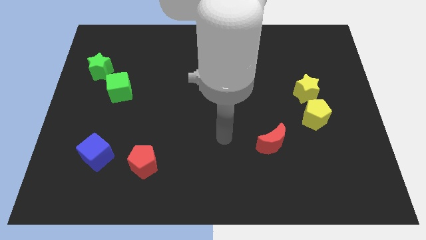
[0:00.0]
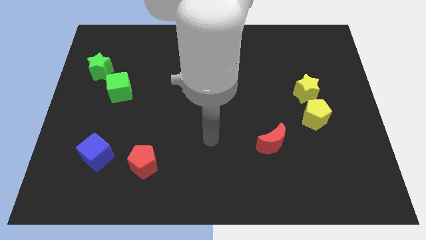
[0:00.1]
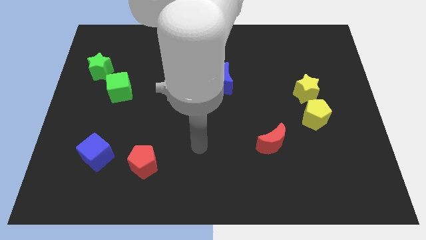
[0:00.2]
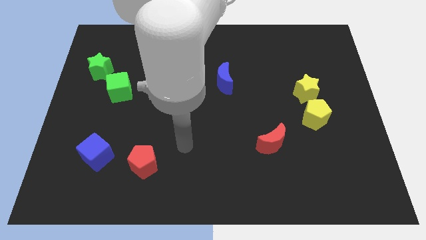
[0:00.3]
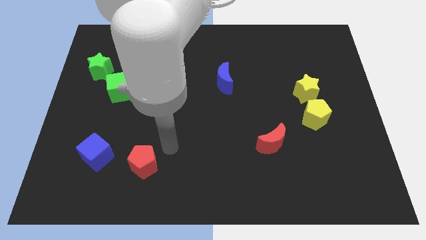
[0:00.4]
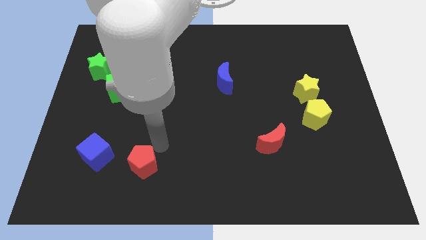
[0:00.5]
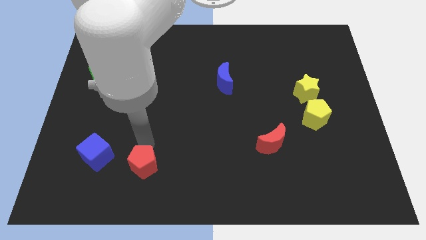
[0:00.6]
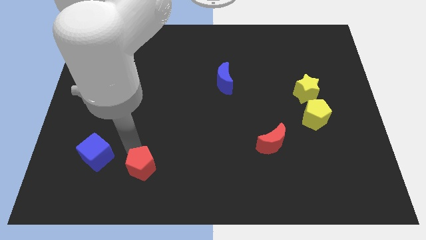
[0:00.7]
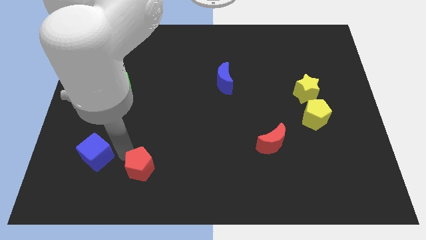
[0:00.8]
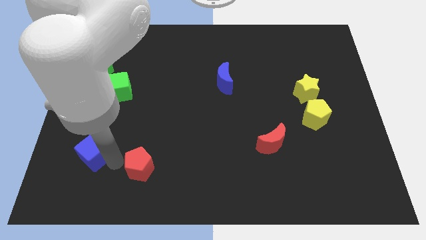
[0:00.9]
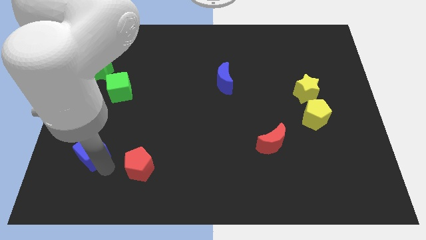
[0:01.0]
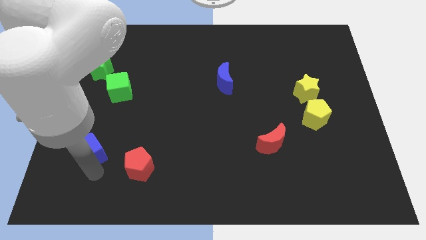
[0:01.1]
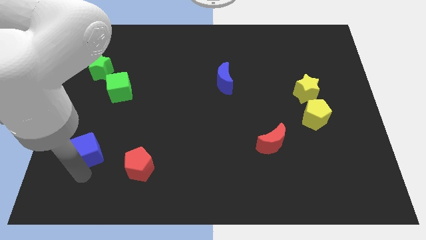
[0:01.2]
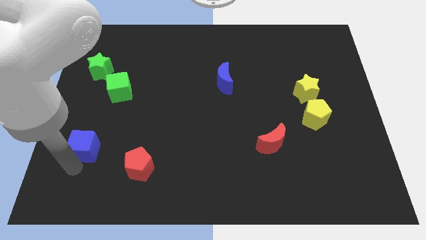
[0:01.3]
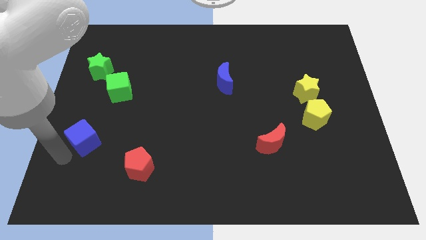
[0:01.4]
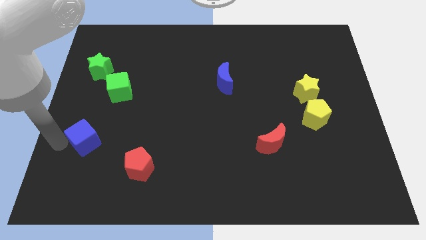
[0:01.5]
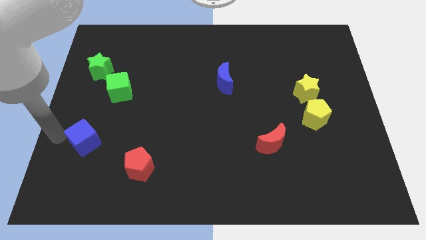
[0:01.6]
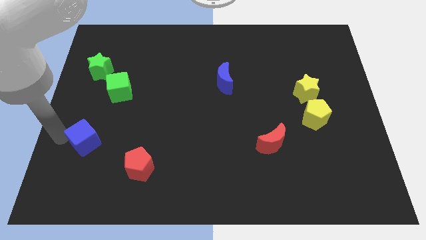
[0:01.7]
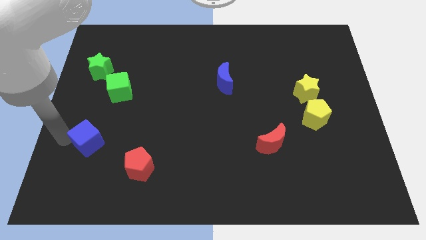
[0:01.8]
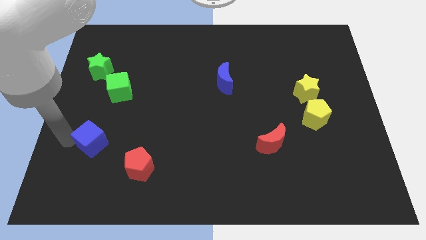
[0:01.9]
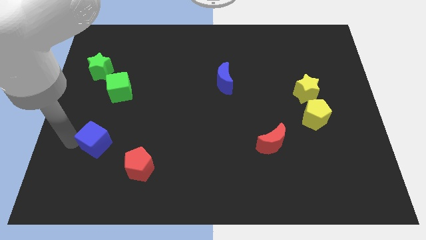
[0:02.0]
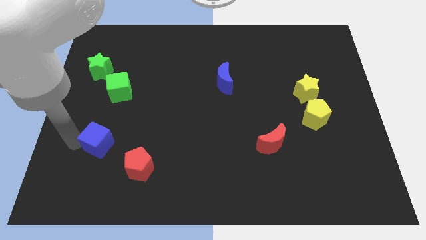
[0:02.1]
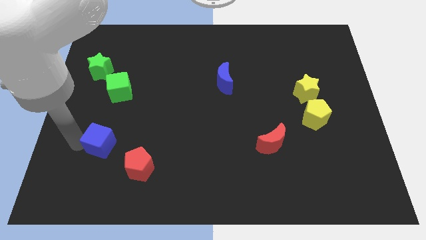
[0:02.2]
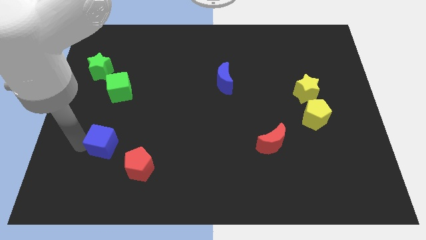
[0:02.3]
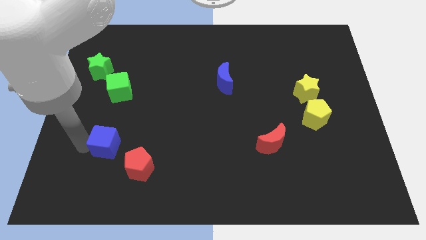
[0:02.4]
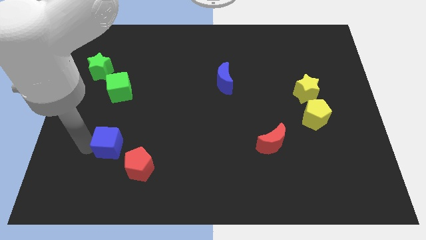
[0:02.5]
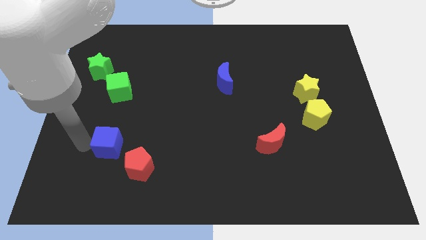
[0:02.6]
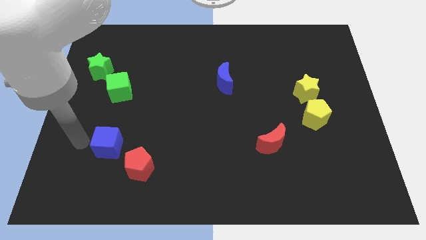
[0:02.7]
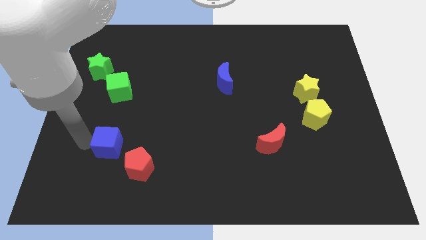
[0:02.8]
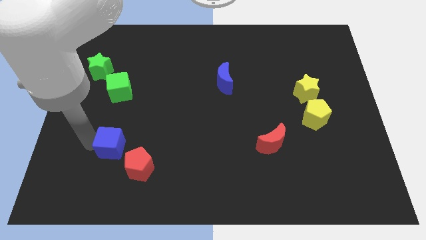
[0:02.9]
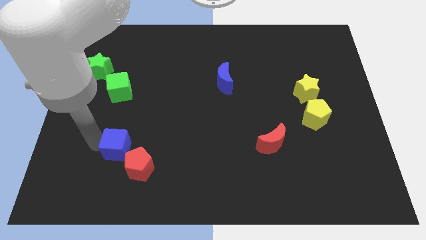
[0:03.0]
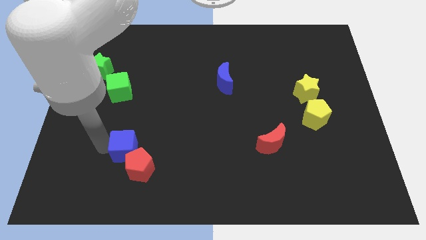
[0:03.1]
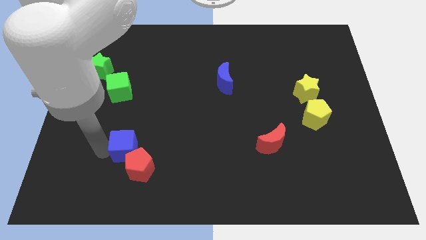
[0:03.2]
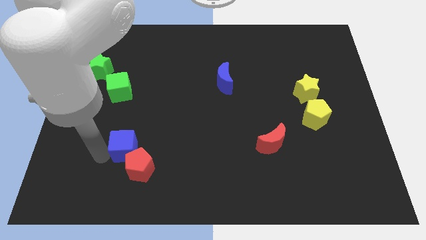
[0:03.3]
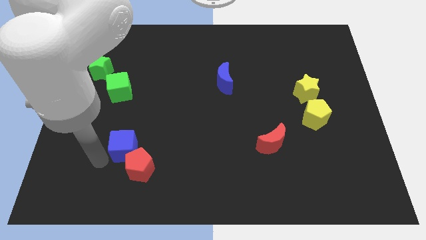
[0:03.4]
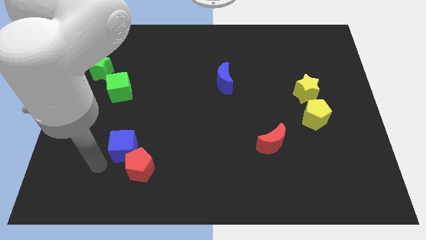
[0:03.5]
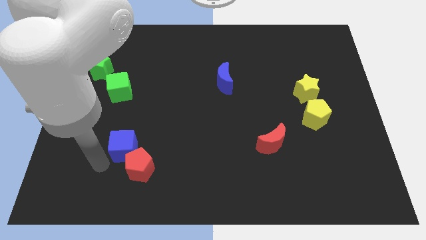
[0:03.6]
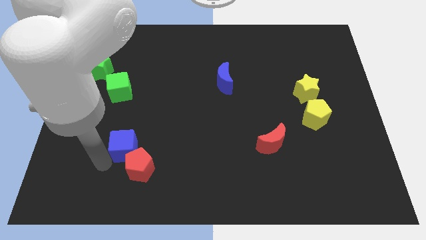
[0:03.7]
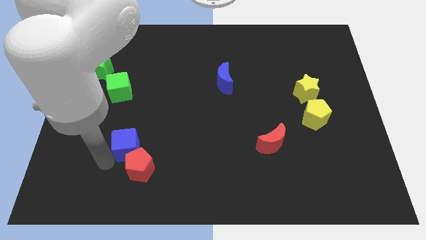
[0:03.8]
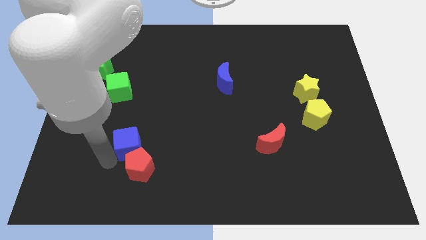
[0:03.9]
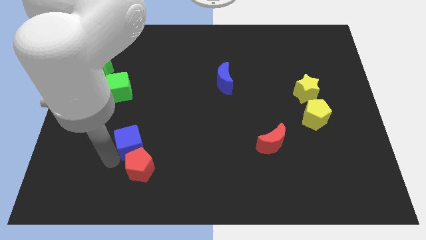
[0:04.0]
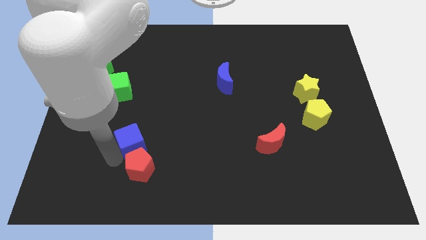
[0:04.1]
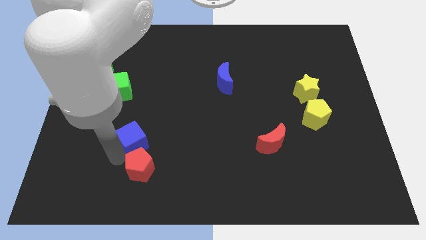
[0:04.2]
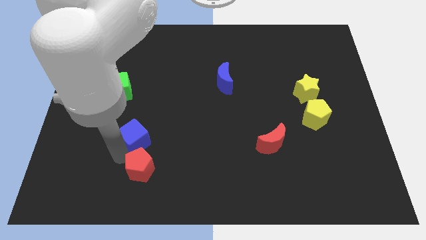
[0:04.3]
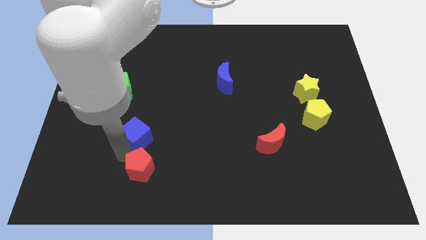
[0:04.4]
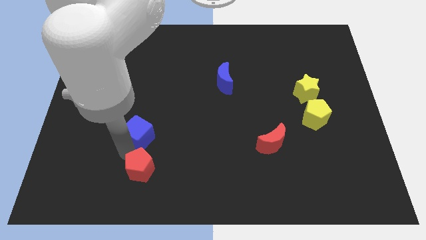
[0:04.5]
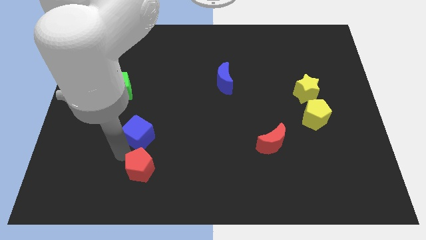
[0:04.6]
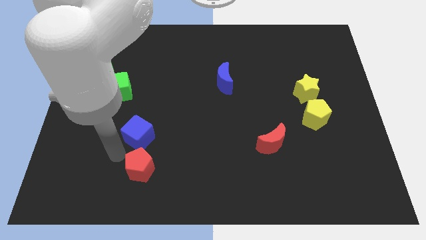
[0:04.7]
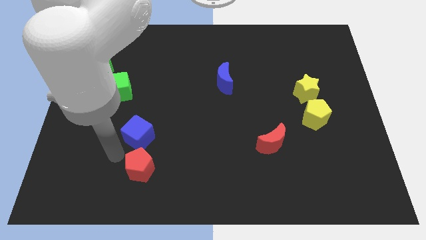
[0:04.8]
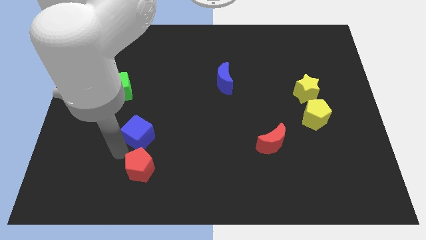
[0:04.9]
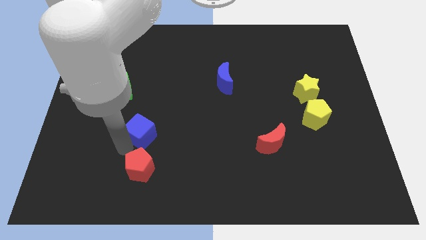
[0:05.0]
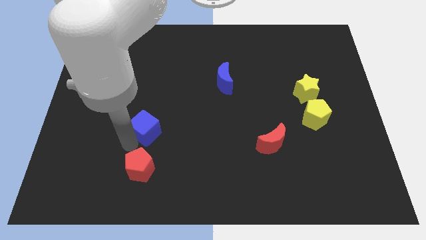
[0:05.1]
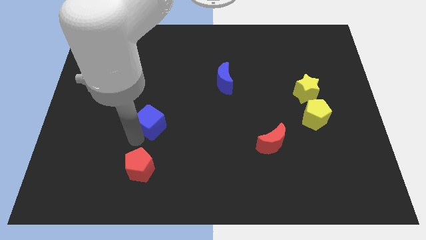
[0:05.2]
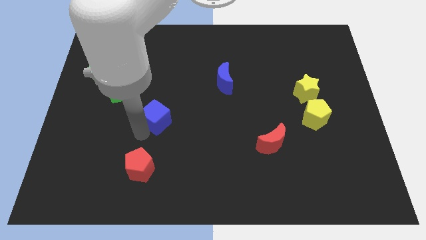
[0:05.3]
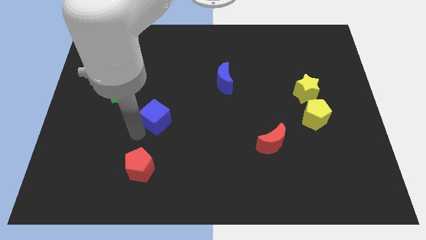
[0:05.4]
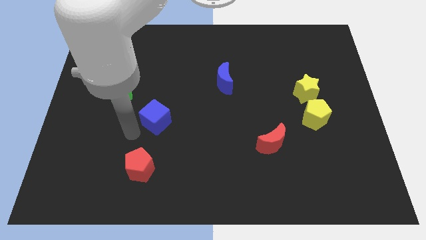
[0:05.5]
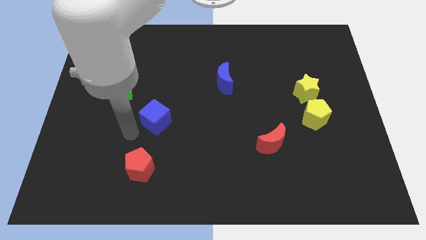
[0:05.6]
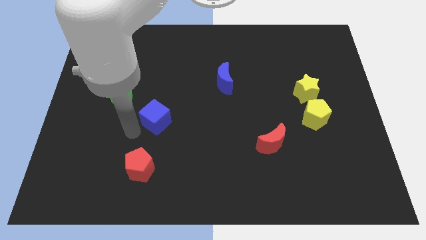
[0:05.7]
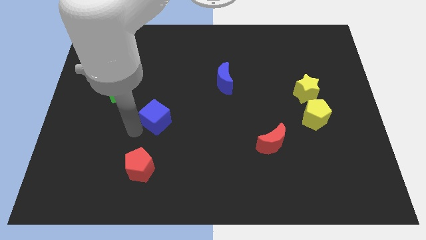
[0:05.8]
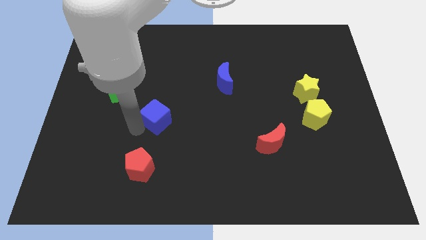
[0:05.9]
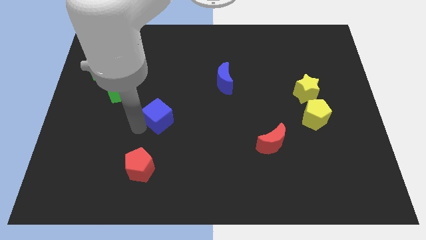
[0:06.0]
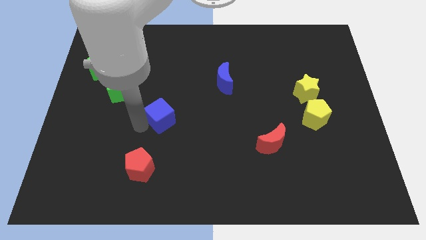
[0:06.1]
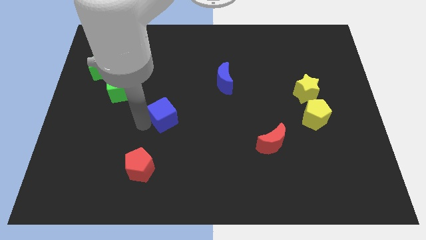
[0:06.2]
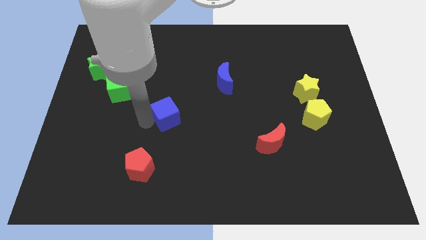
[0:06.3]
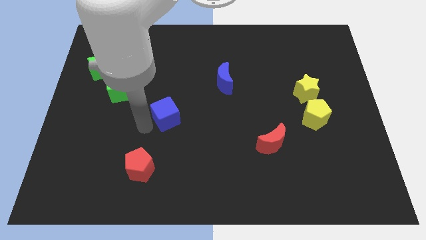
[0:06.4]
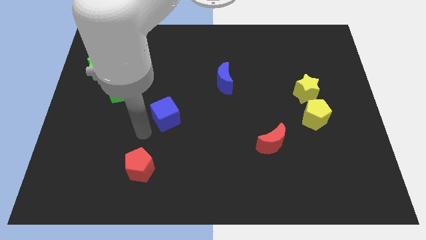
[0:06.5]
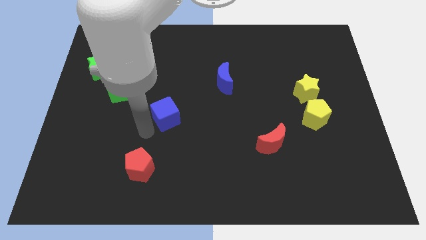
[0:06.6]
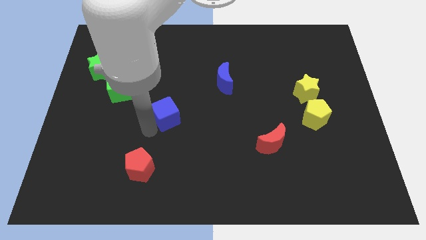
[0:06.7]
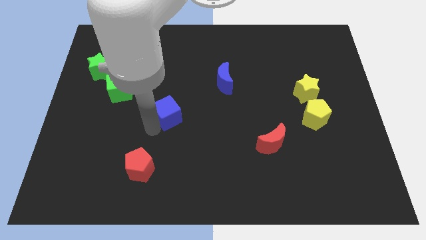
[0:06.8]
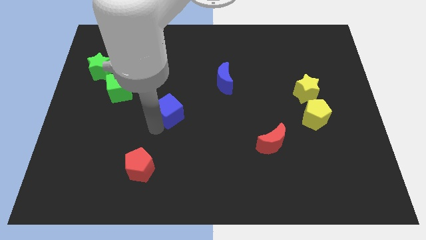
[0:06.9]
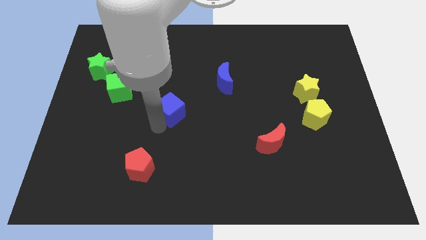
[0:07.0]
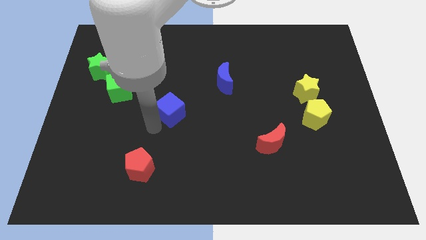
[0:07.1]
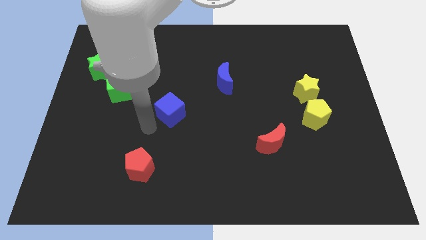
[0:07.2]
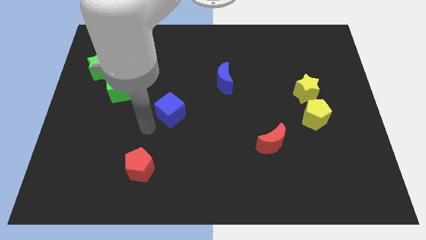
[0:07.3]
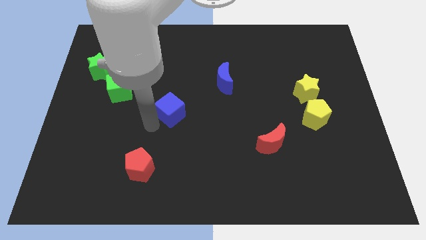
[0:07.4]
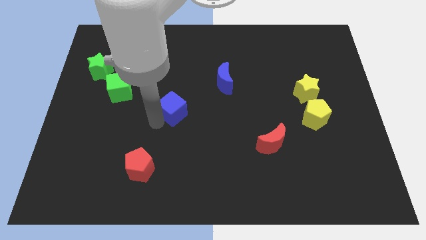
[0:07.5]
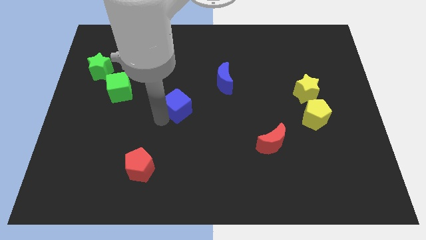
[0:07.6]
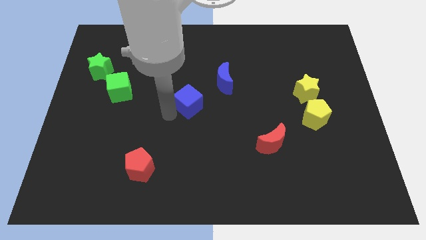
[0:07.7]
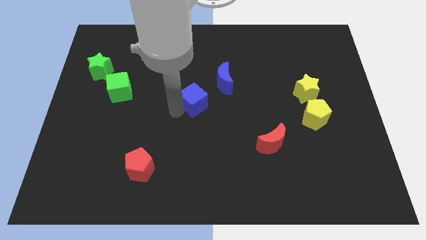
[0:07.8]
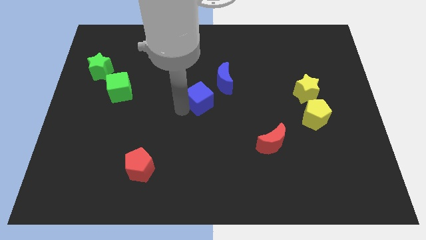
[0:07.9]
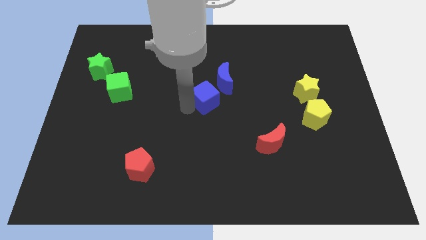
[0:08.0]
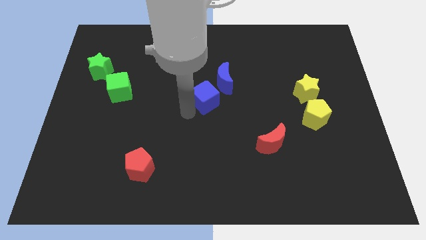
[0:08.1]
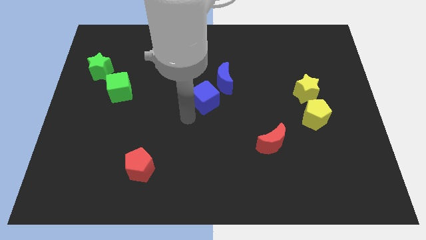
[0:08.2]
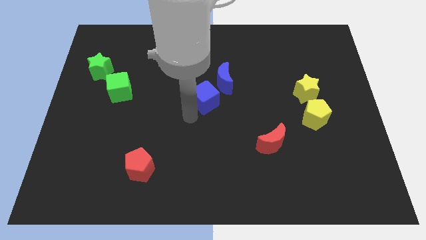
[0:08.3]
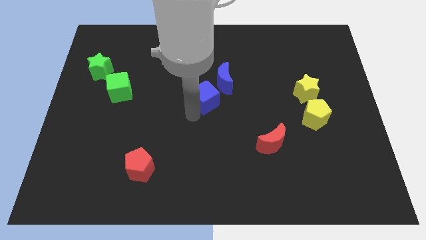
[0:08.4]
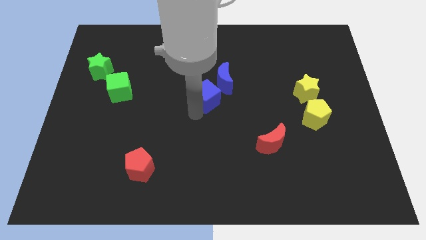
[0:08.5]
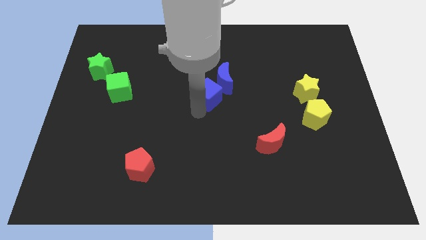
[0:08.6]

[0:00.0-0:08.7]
put the blue cube to the blue moon
